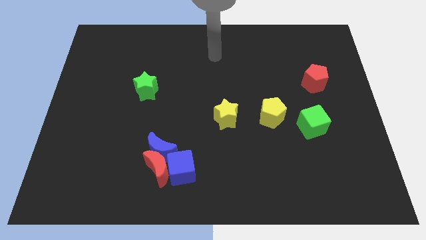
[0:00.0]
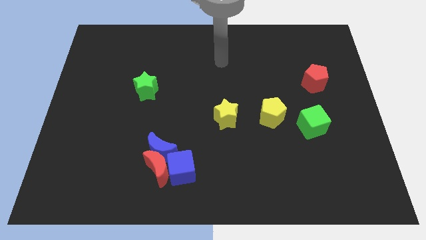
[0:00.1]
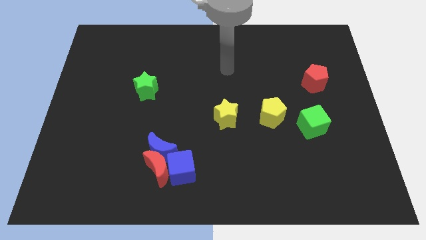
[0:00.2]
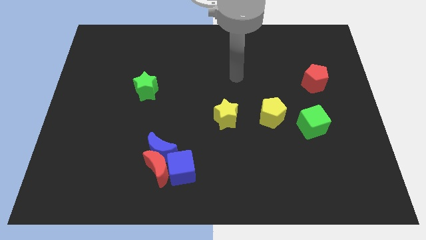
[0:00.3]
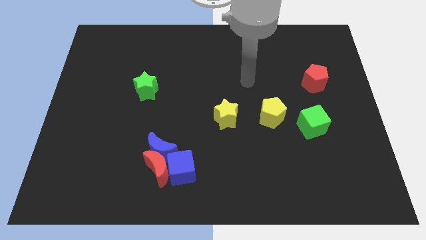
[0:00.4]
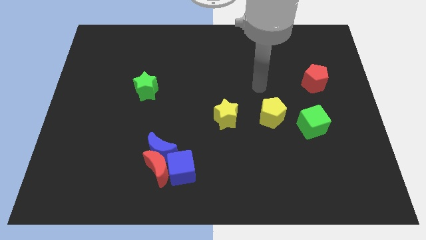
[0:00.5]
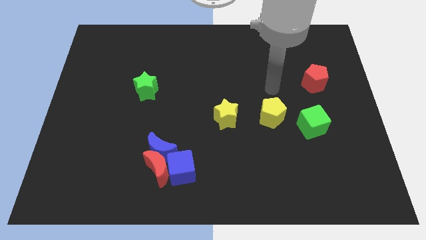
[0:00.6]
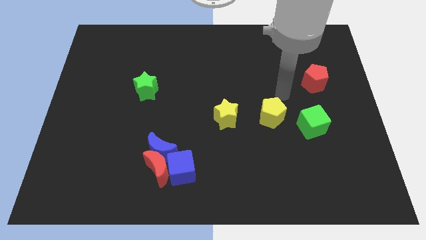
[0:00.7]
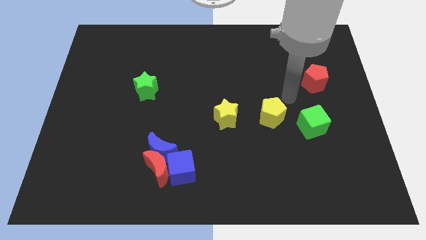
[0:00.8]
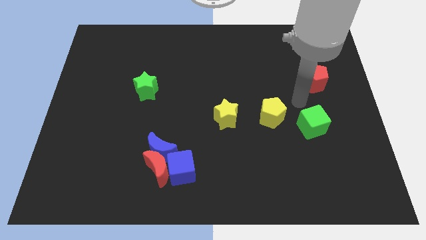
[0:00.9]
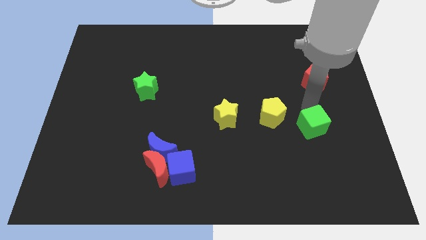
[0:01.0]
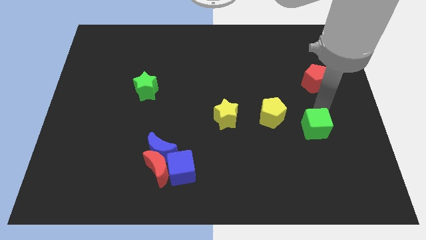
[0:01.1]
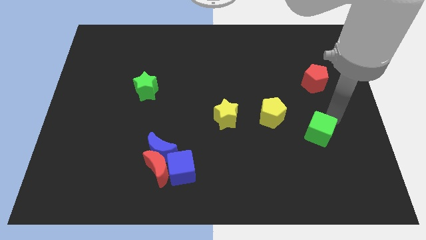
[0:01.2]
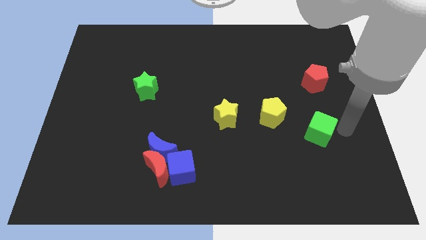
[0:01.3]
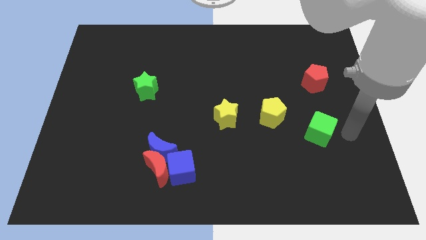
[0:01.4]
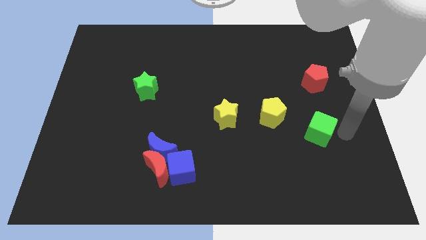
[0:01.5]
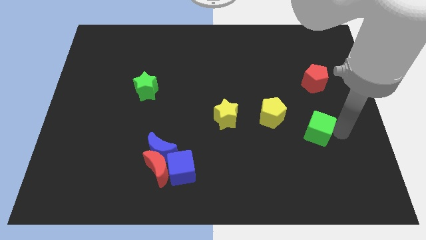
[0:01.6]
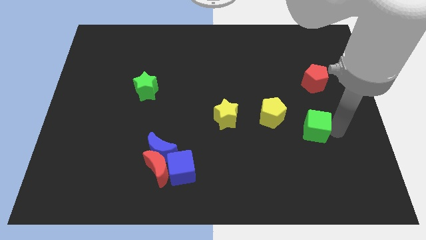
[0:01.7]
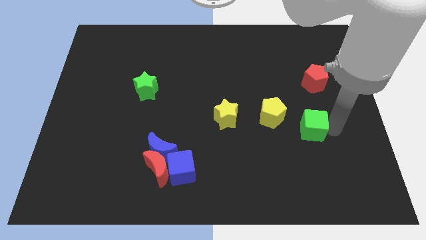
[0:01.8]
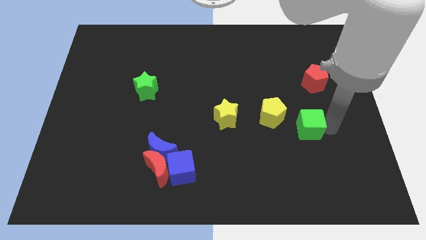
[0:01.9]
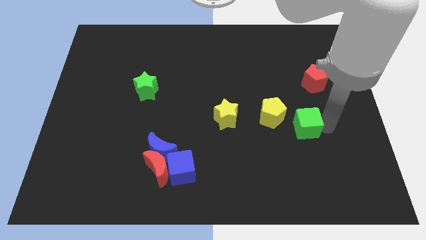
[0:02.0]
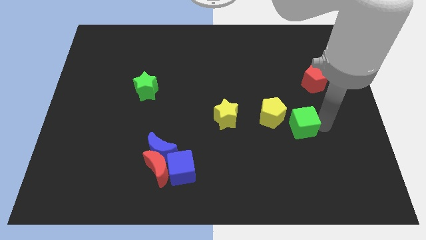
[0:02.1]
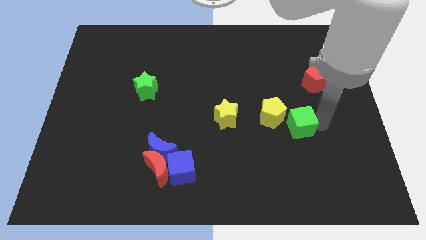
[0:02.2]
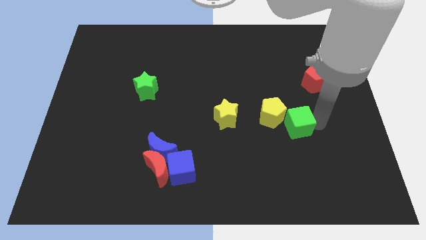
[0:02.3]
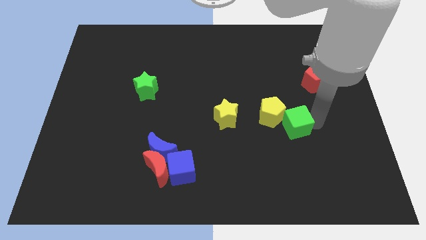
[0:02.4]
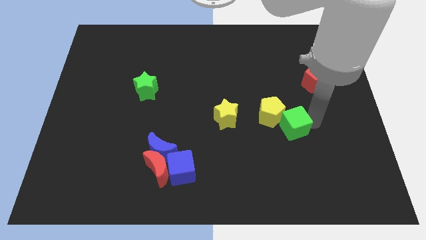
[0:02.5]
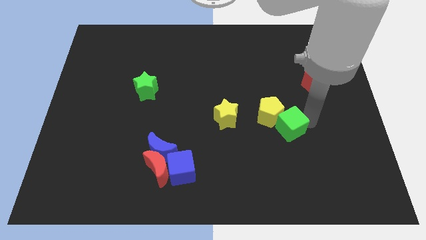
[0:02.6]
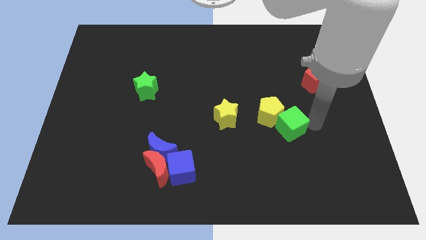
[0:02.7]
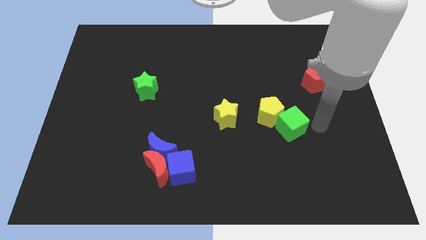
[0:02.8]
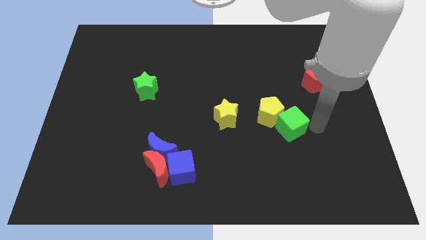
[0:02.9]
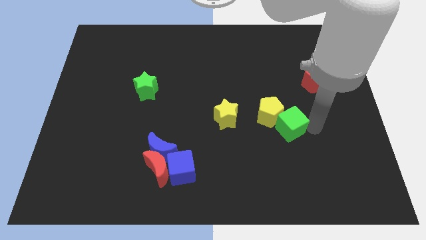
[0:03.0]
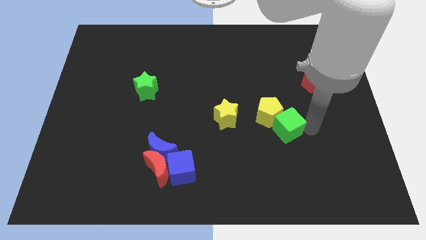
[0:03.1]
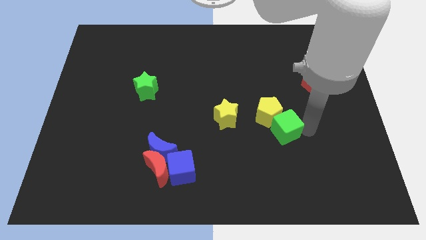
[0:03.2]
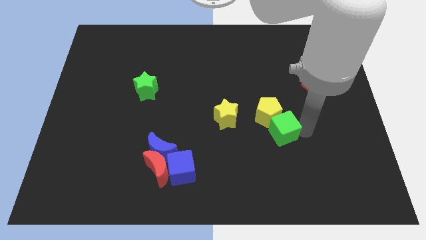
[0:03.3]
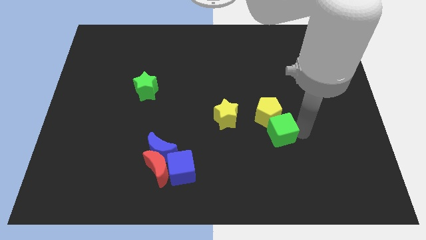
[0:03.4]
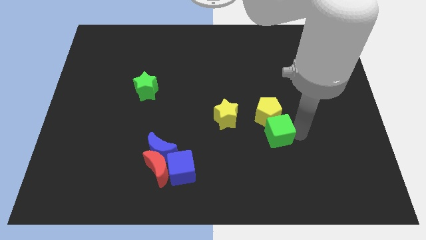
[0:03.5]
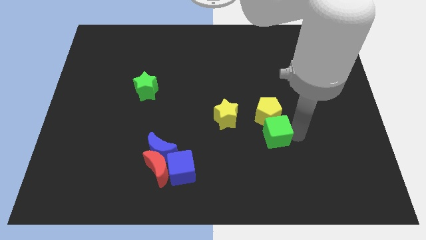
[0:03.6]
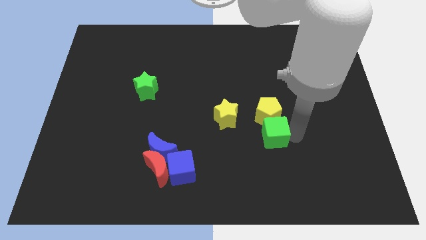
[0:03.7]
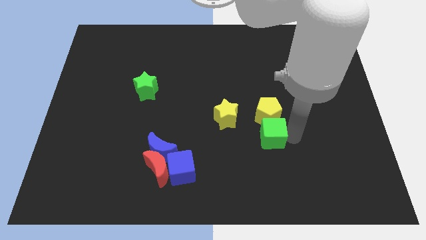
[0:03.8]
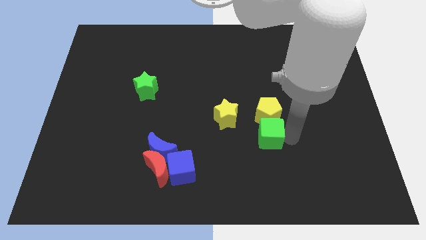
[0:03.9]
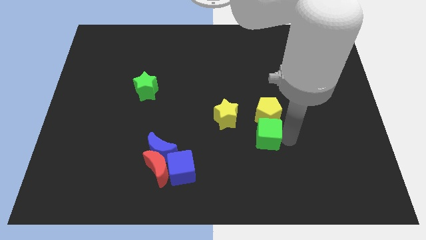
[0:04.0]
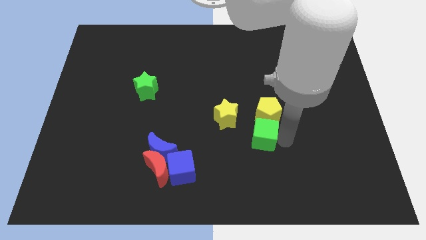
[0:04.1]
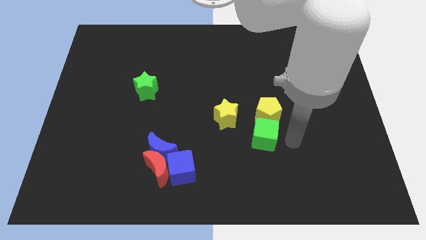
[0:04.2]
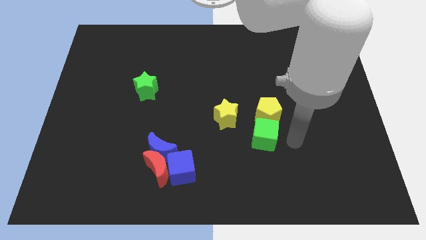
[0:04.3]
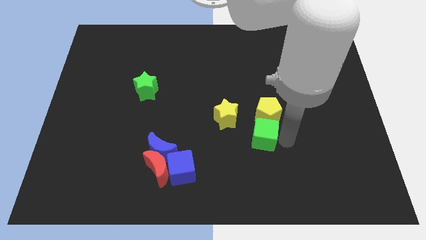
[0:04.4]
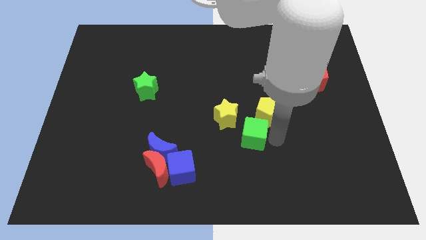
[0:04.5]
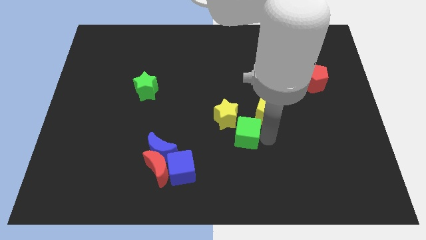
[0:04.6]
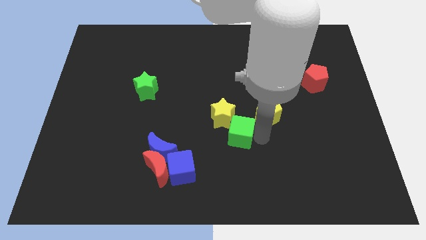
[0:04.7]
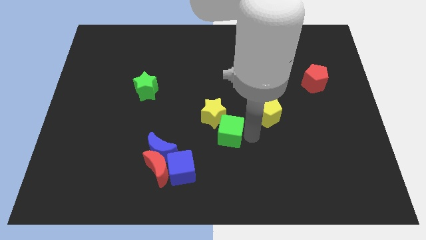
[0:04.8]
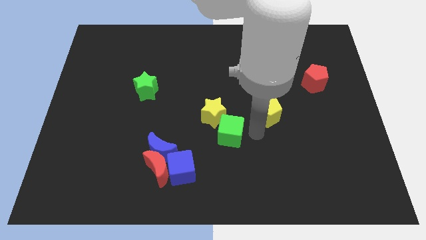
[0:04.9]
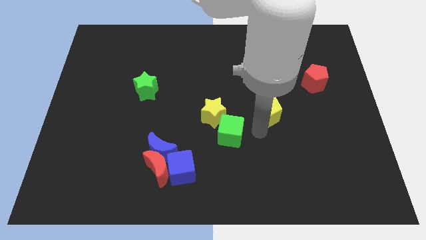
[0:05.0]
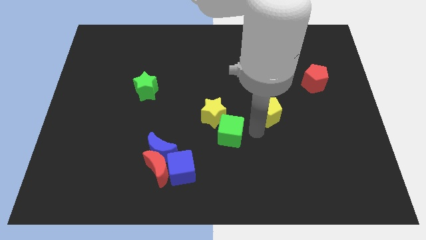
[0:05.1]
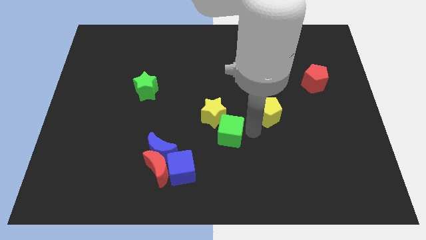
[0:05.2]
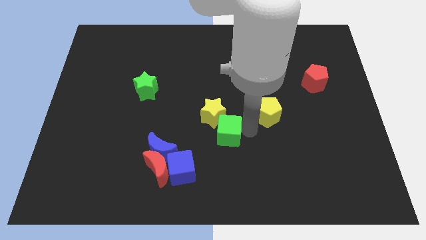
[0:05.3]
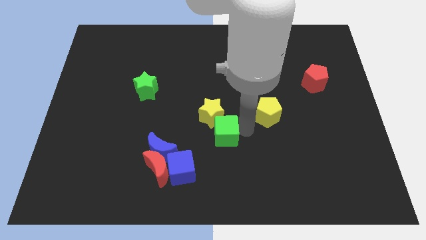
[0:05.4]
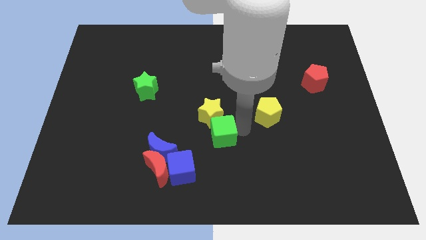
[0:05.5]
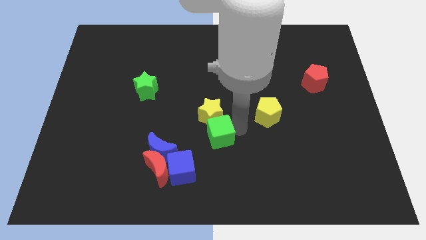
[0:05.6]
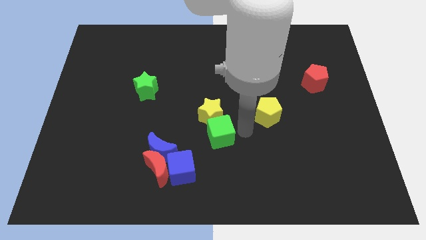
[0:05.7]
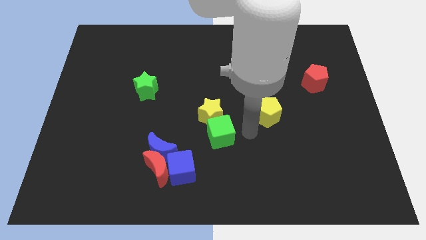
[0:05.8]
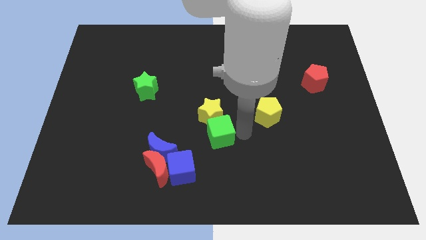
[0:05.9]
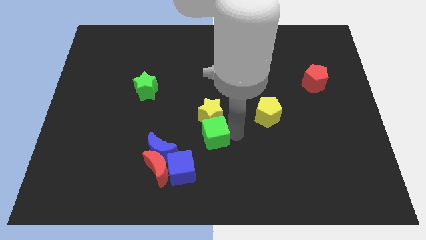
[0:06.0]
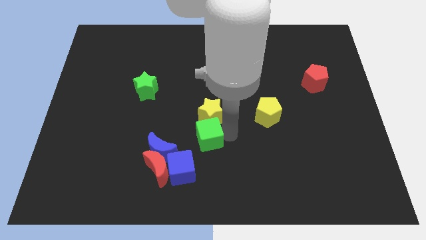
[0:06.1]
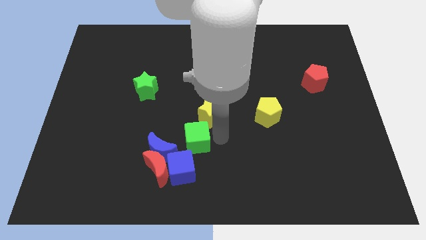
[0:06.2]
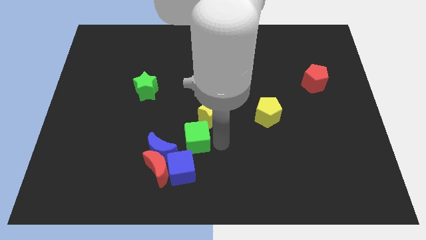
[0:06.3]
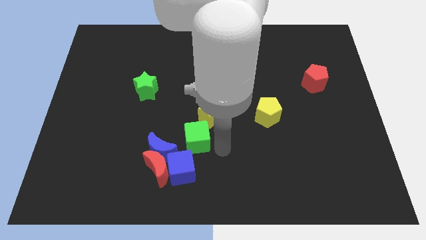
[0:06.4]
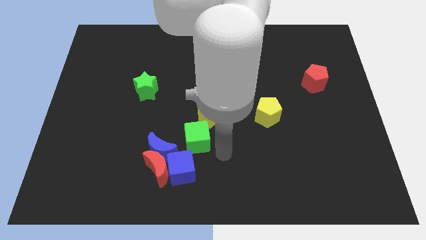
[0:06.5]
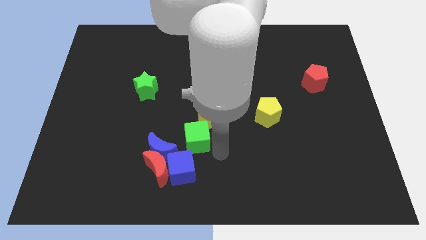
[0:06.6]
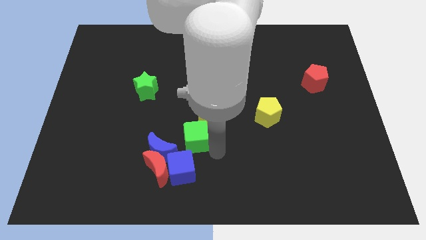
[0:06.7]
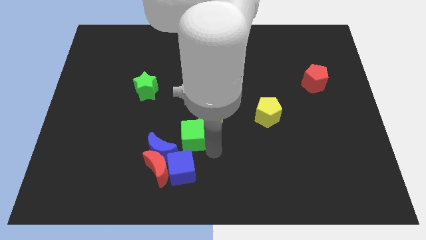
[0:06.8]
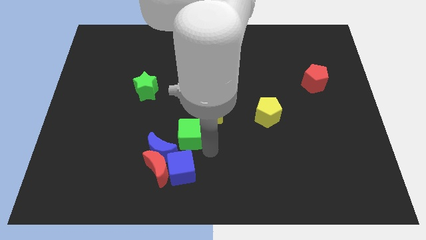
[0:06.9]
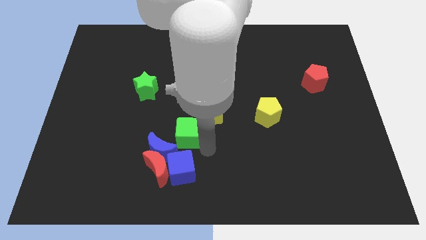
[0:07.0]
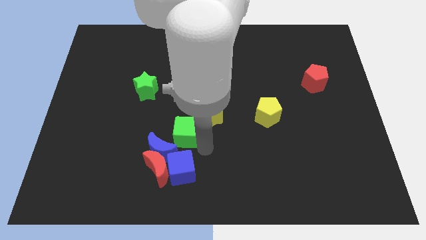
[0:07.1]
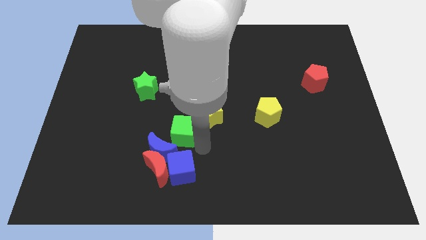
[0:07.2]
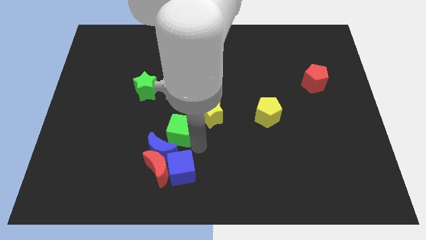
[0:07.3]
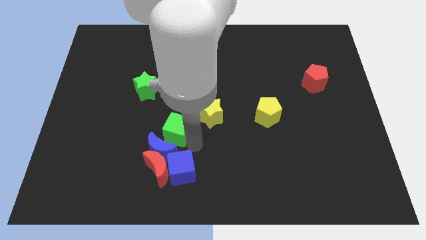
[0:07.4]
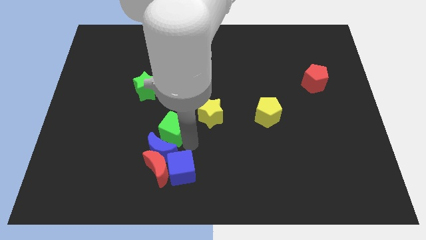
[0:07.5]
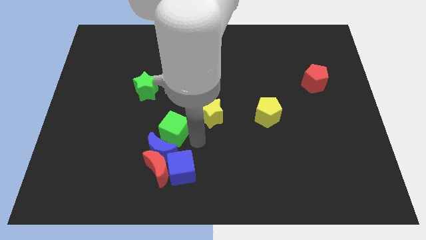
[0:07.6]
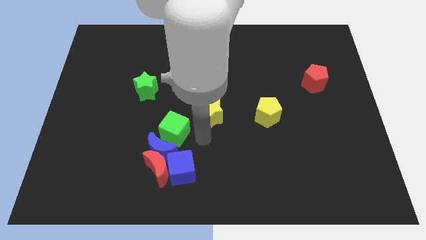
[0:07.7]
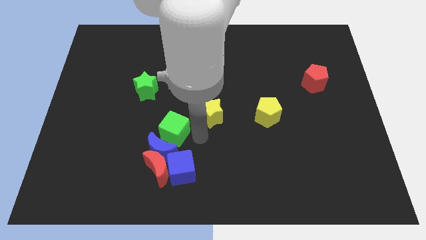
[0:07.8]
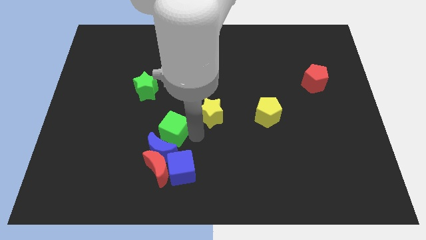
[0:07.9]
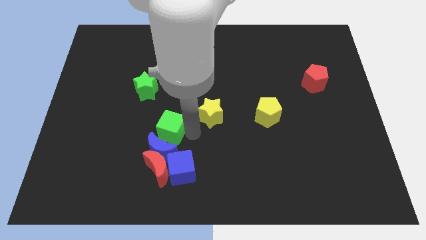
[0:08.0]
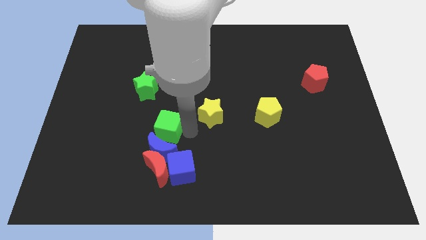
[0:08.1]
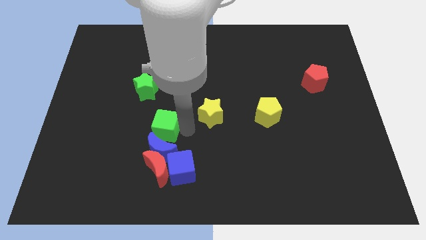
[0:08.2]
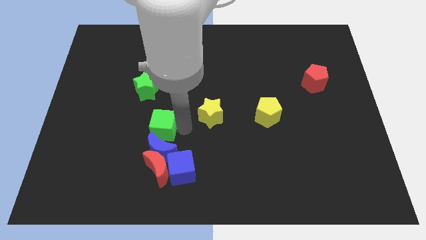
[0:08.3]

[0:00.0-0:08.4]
push the green cube below the green star
